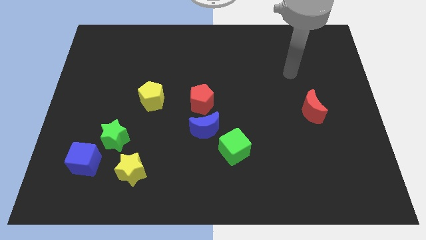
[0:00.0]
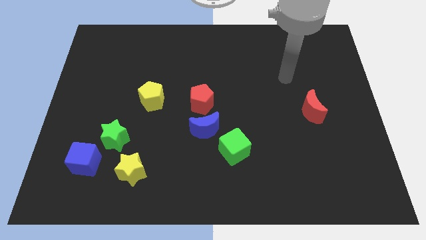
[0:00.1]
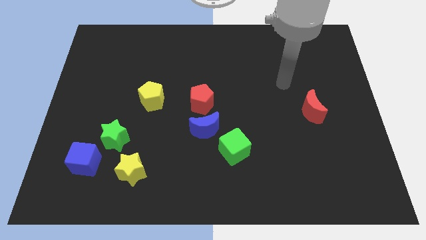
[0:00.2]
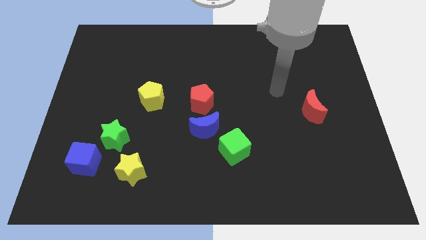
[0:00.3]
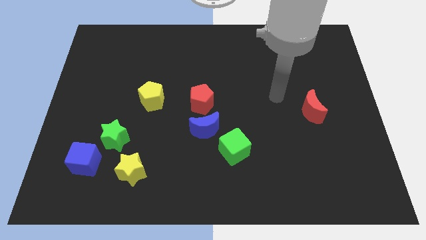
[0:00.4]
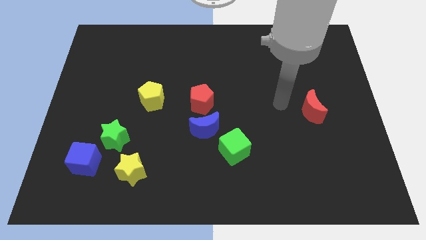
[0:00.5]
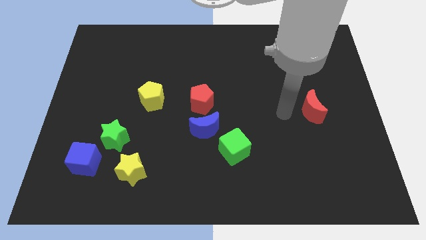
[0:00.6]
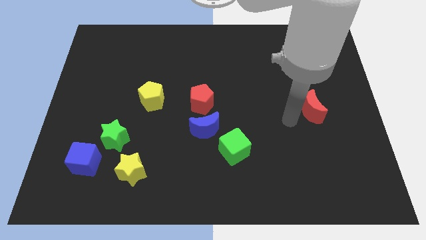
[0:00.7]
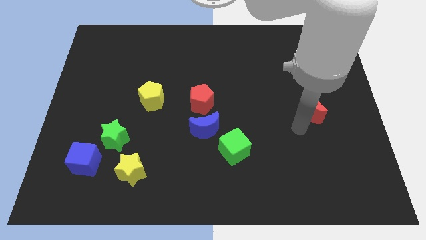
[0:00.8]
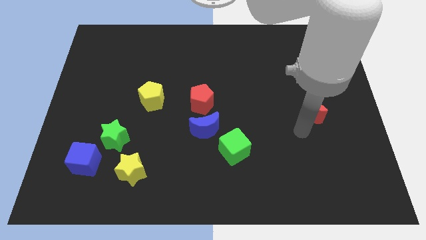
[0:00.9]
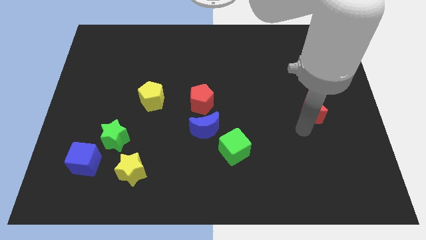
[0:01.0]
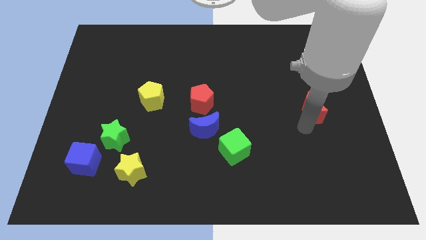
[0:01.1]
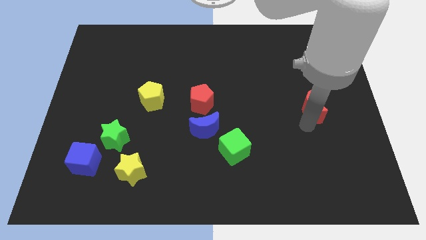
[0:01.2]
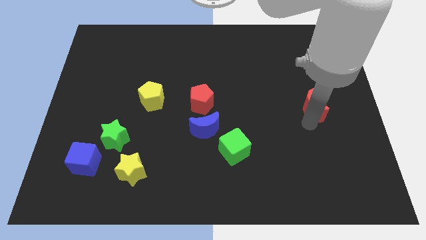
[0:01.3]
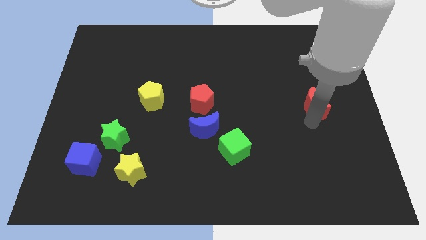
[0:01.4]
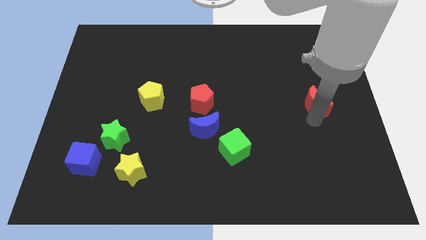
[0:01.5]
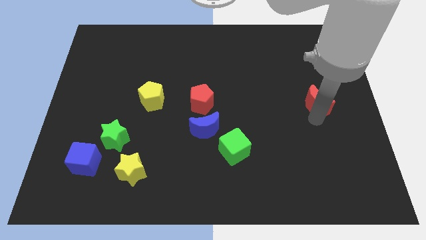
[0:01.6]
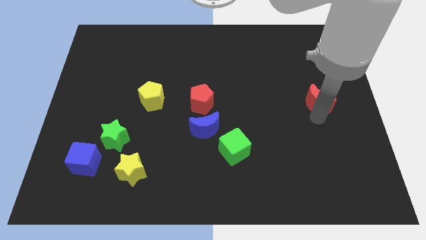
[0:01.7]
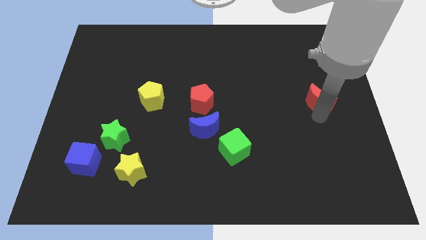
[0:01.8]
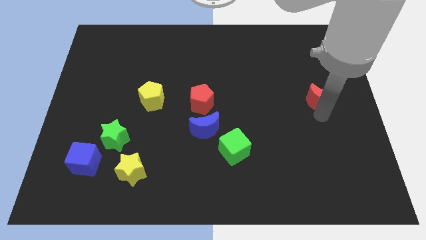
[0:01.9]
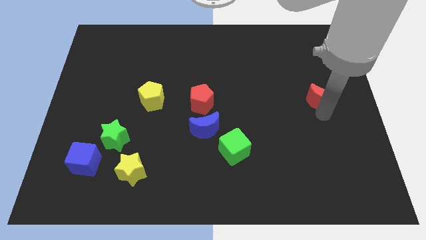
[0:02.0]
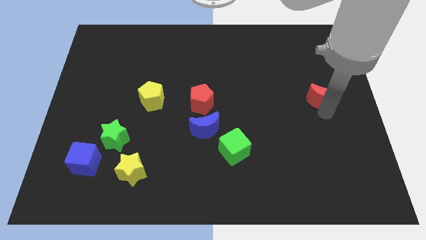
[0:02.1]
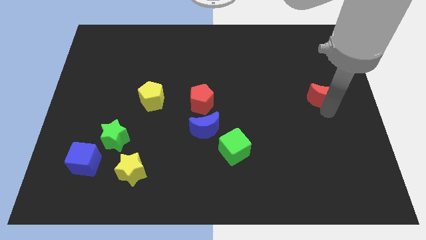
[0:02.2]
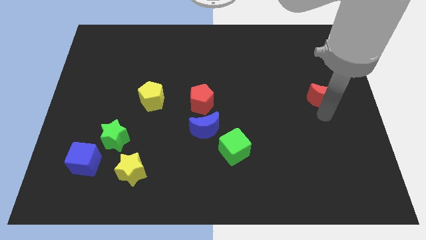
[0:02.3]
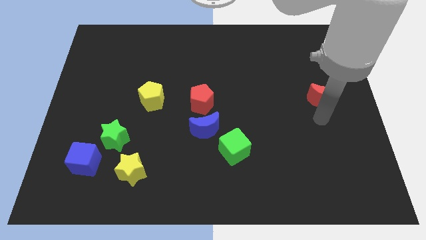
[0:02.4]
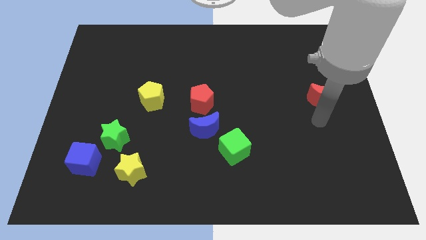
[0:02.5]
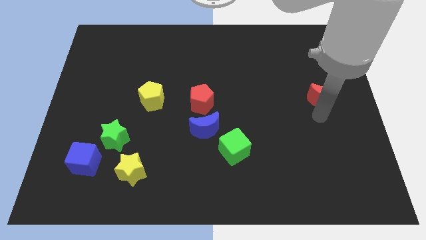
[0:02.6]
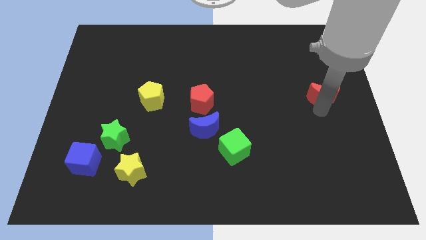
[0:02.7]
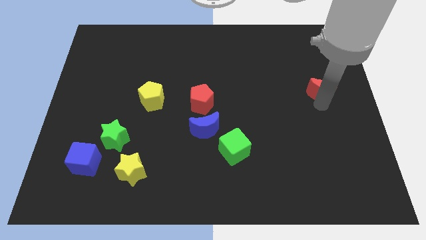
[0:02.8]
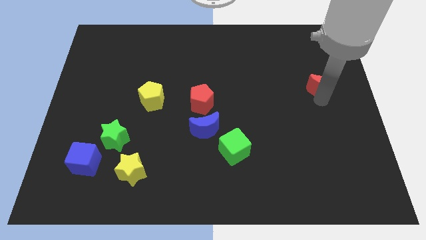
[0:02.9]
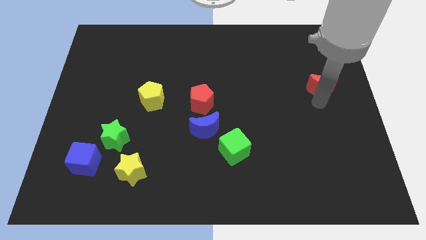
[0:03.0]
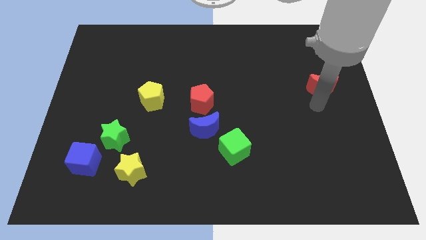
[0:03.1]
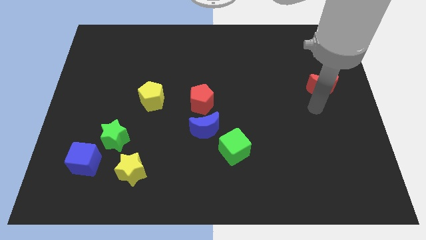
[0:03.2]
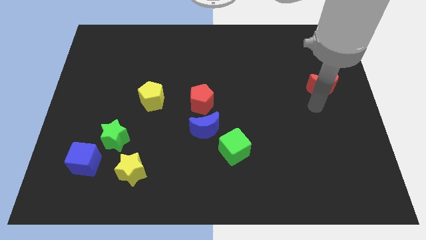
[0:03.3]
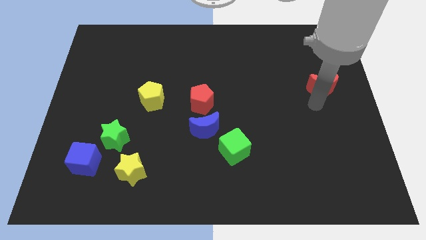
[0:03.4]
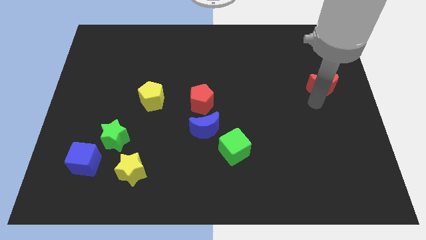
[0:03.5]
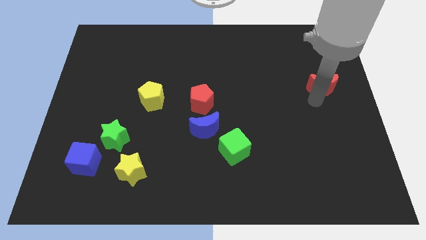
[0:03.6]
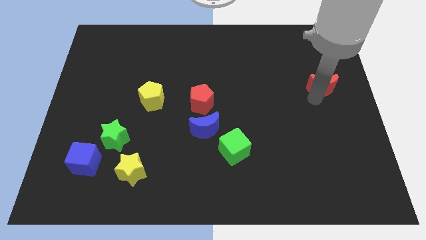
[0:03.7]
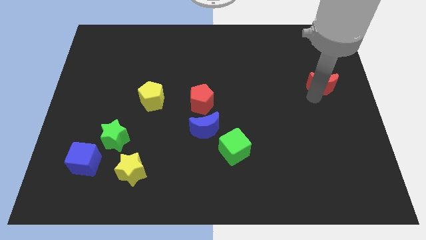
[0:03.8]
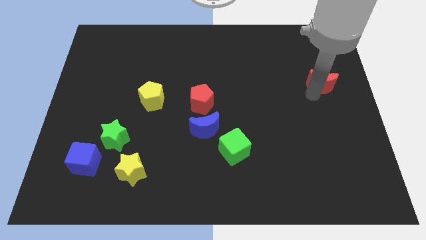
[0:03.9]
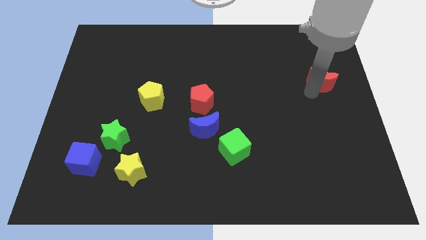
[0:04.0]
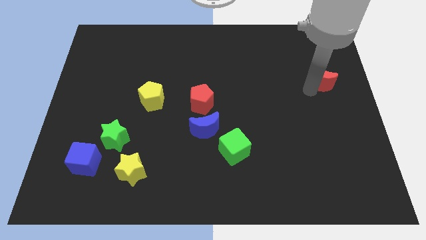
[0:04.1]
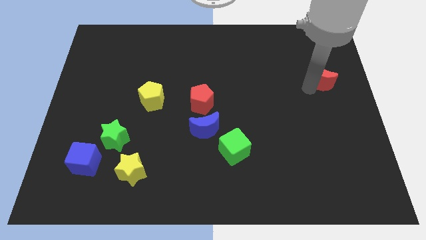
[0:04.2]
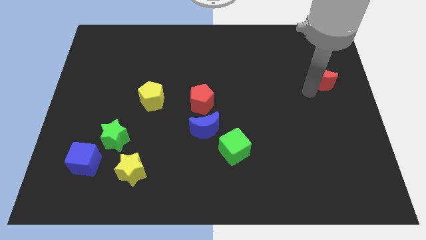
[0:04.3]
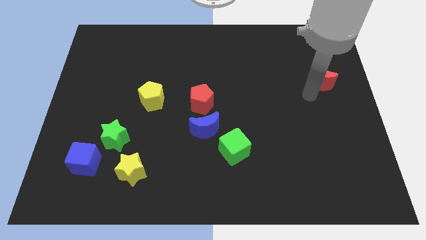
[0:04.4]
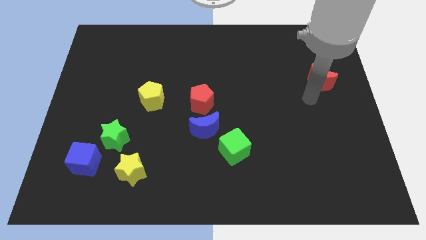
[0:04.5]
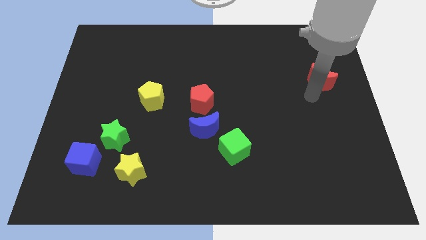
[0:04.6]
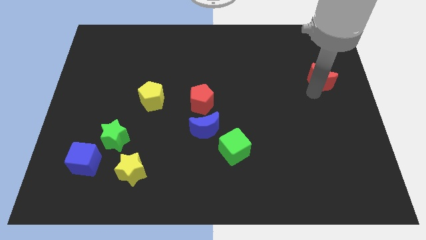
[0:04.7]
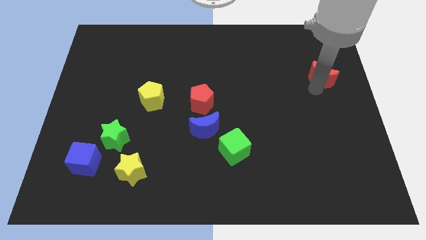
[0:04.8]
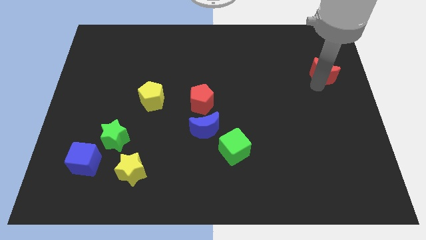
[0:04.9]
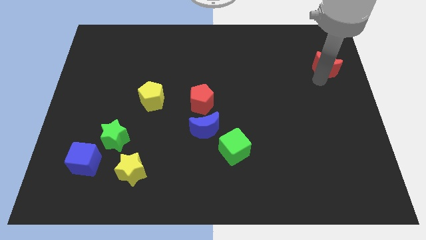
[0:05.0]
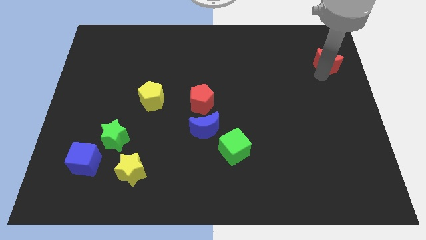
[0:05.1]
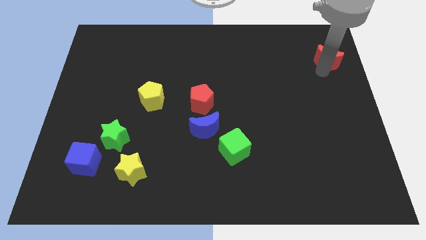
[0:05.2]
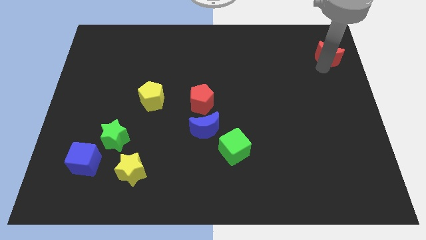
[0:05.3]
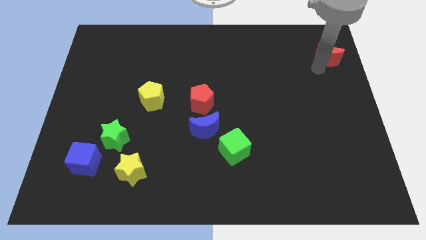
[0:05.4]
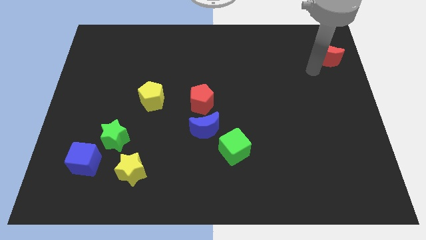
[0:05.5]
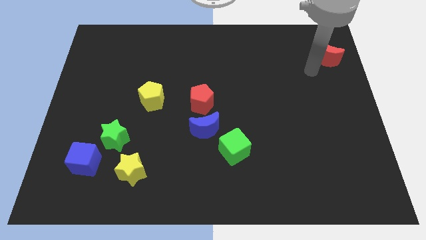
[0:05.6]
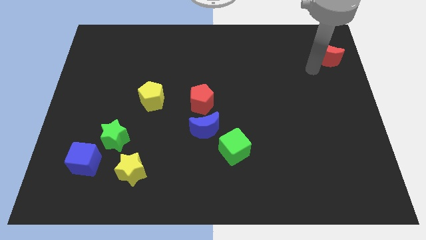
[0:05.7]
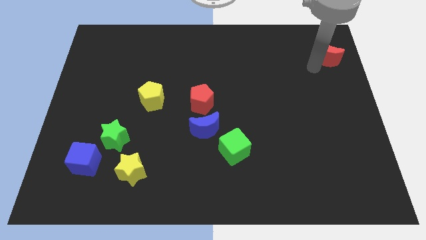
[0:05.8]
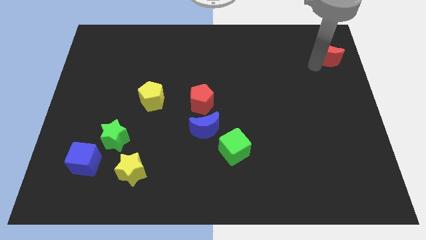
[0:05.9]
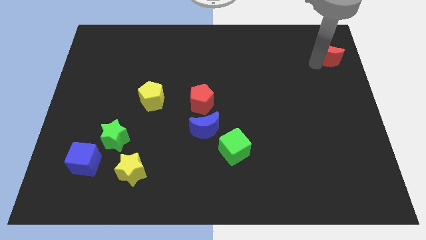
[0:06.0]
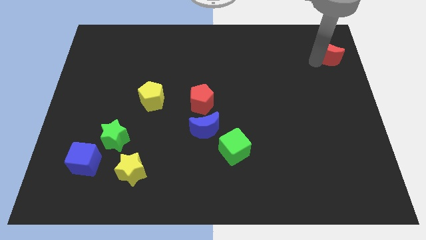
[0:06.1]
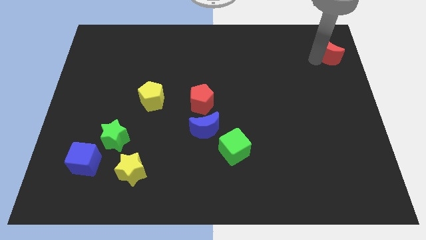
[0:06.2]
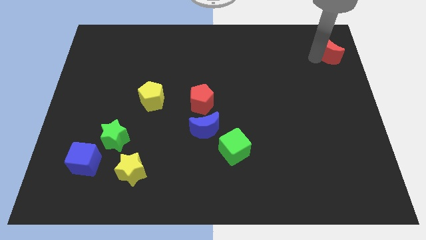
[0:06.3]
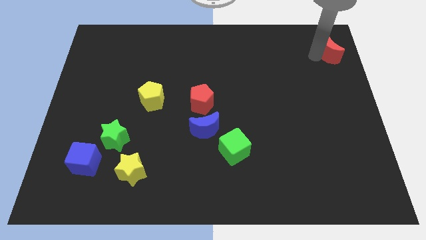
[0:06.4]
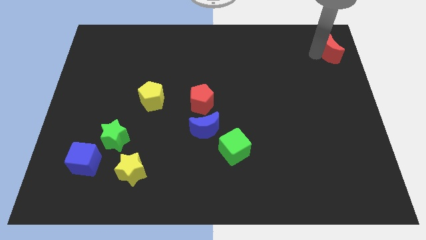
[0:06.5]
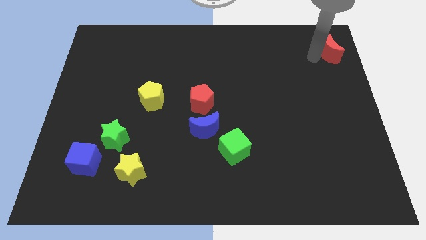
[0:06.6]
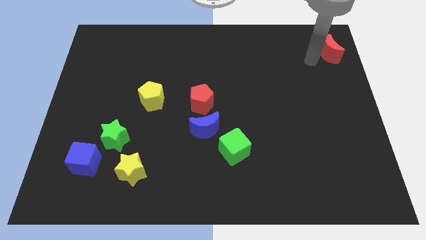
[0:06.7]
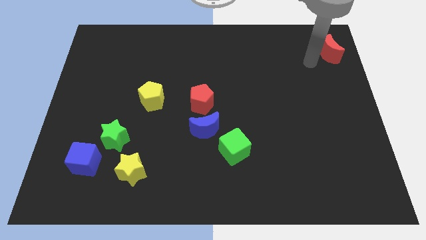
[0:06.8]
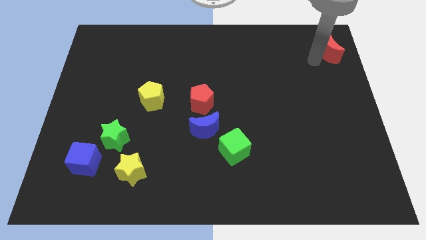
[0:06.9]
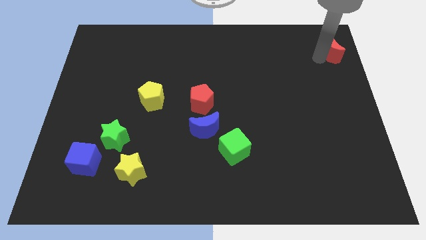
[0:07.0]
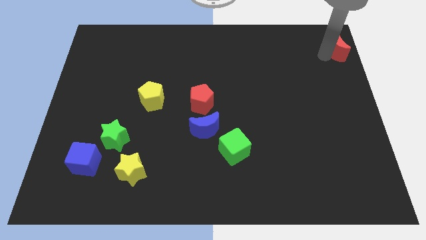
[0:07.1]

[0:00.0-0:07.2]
put the red moon to the upper right corner

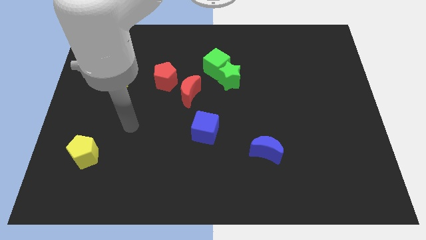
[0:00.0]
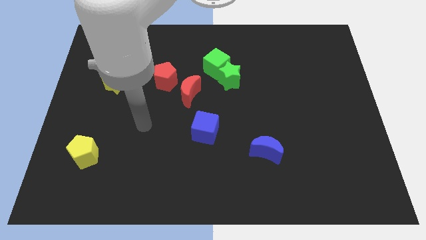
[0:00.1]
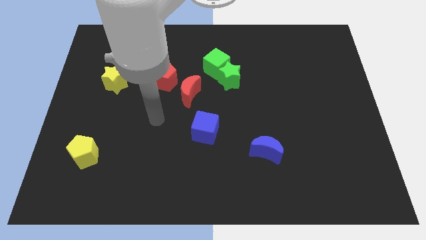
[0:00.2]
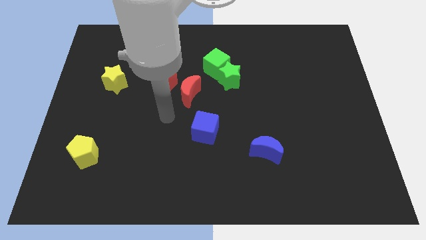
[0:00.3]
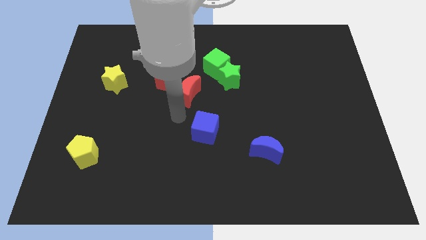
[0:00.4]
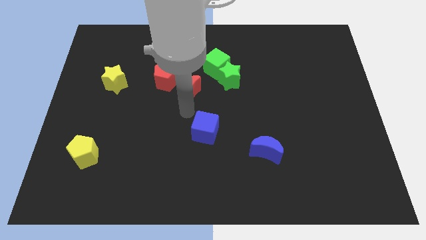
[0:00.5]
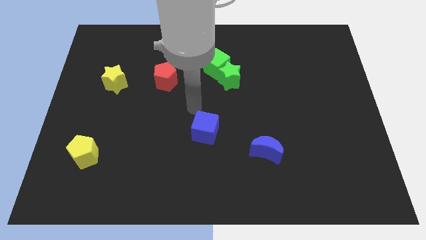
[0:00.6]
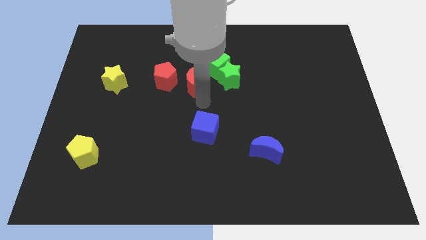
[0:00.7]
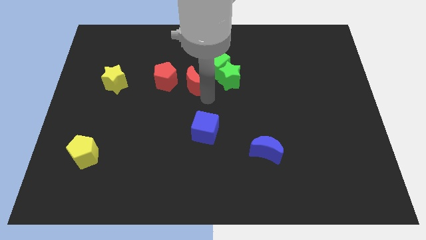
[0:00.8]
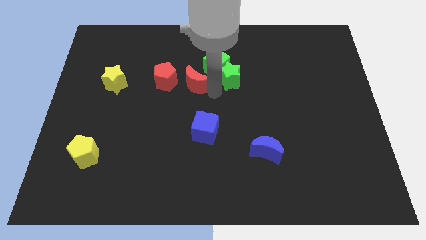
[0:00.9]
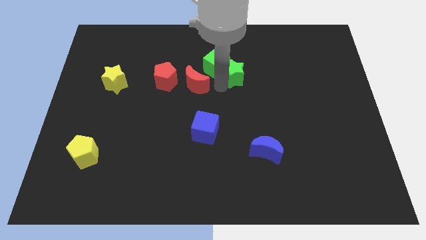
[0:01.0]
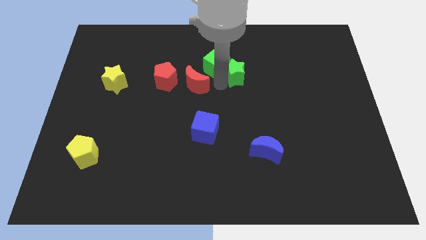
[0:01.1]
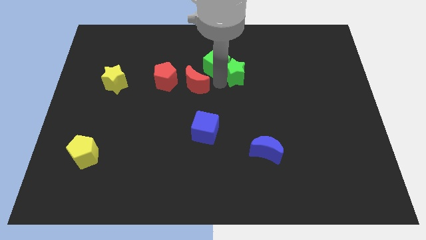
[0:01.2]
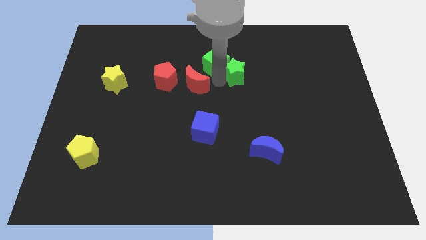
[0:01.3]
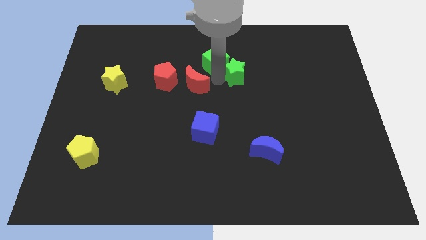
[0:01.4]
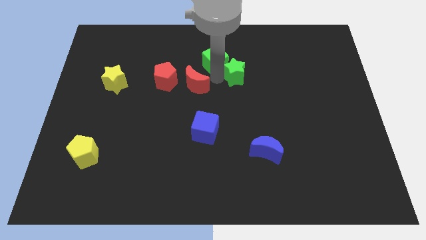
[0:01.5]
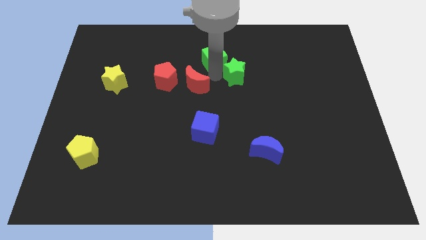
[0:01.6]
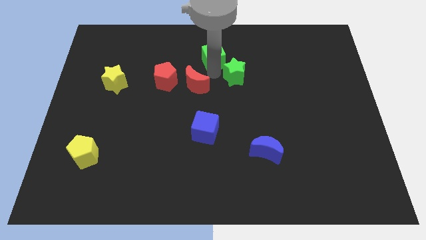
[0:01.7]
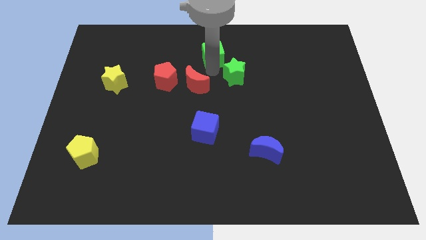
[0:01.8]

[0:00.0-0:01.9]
put the green cube to the top
